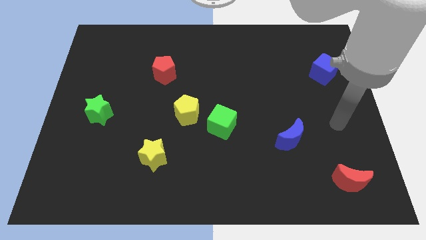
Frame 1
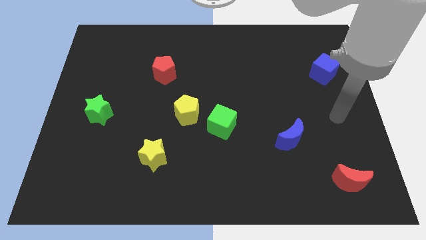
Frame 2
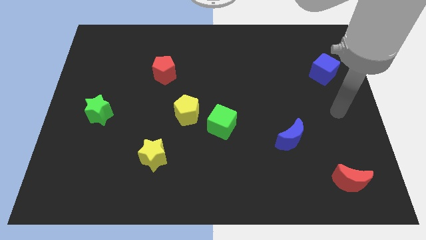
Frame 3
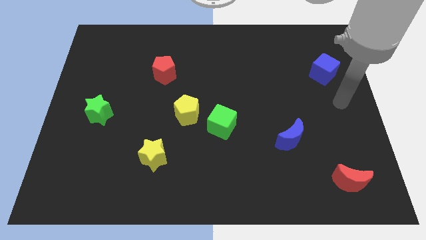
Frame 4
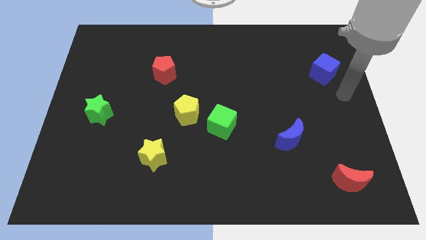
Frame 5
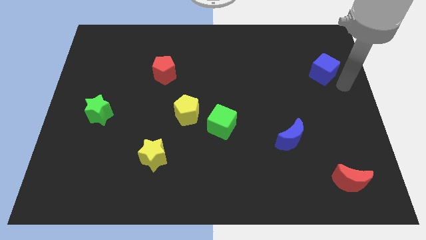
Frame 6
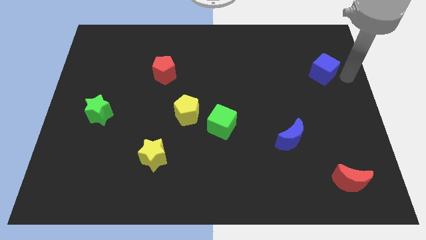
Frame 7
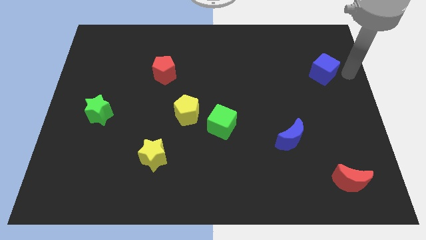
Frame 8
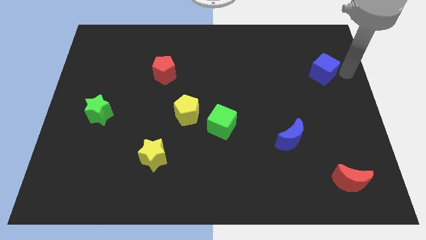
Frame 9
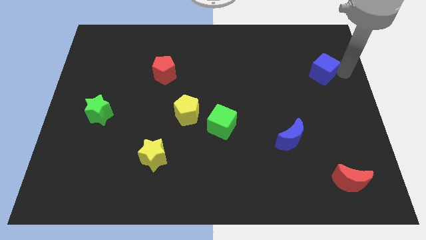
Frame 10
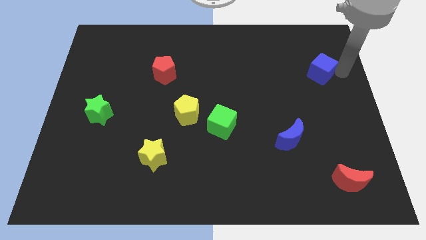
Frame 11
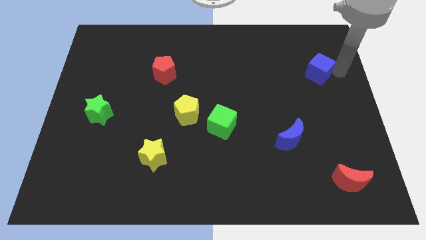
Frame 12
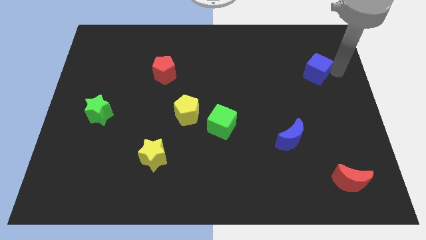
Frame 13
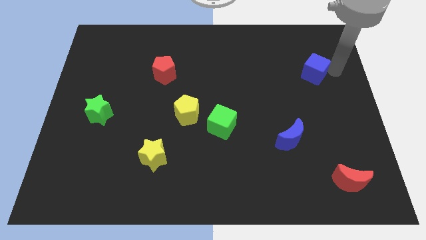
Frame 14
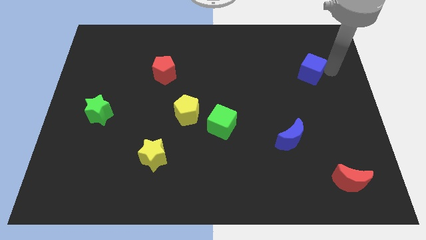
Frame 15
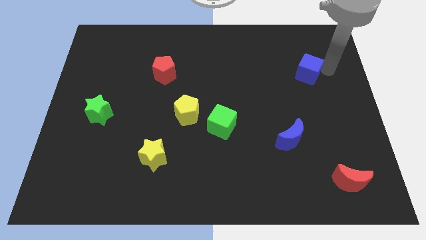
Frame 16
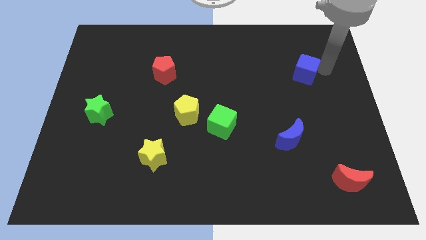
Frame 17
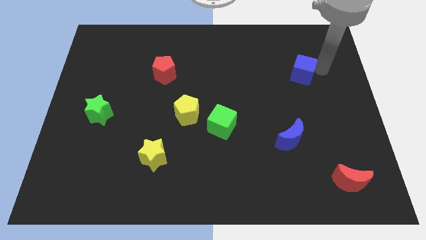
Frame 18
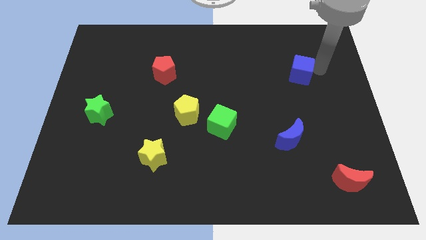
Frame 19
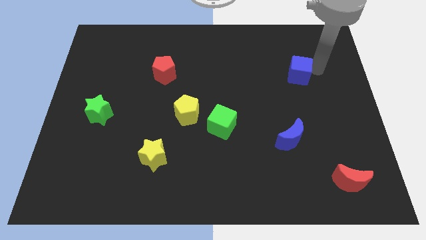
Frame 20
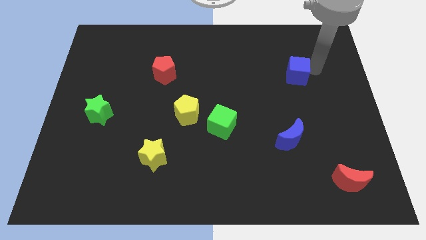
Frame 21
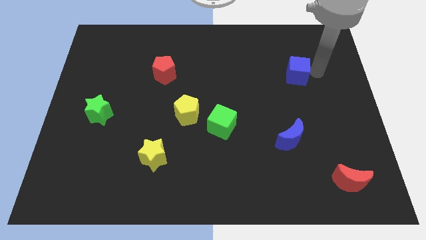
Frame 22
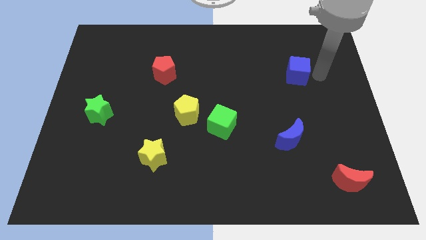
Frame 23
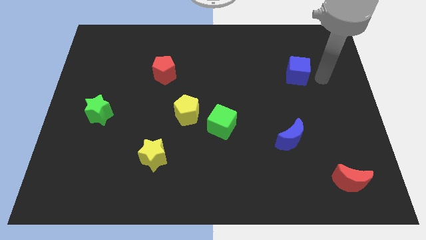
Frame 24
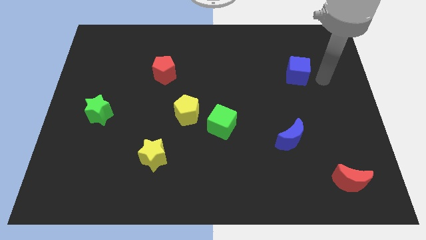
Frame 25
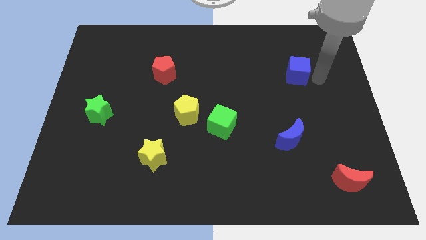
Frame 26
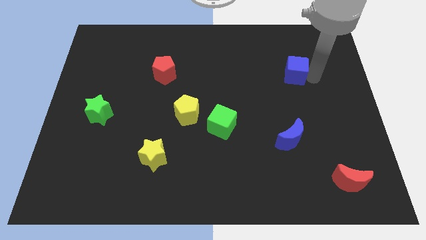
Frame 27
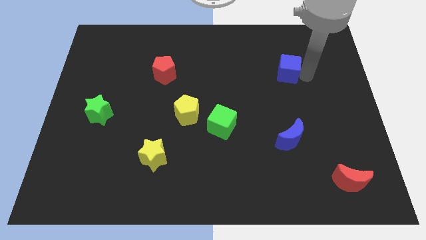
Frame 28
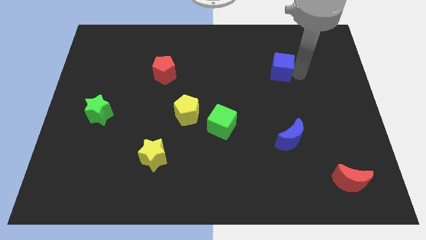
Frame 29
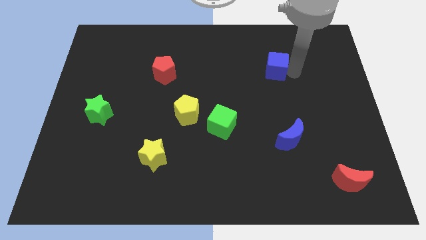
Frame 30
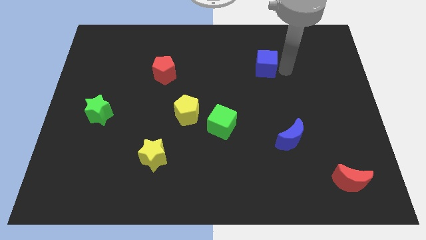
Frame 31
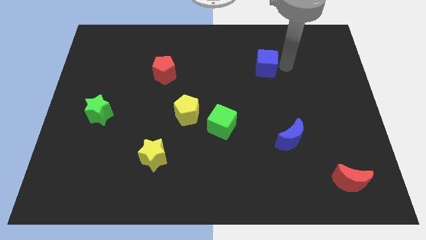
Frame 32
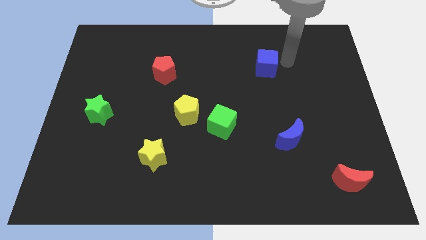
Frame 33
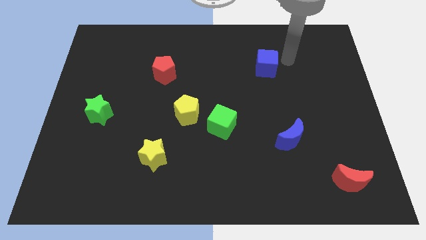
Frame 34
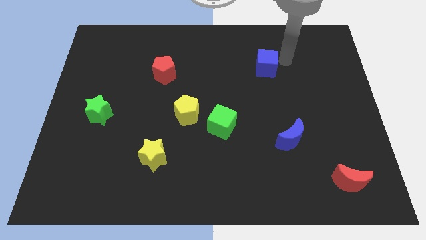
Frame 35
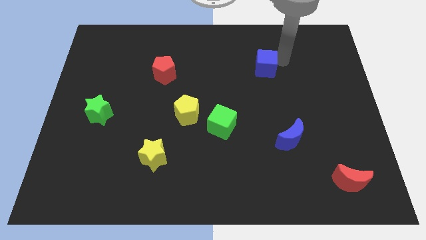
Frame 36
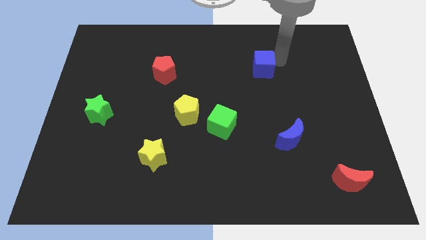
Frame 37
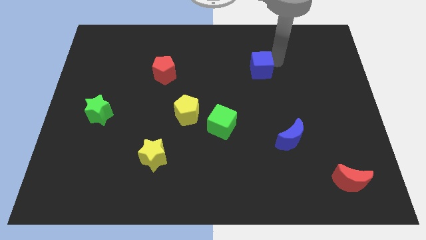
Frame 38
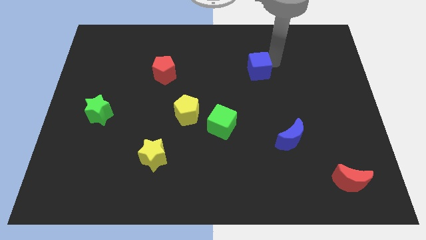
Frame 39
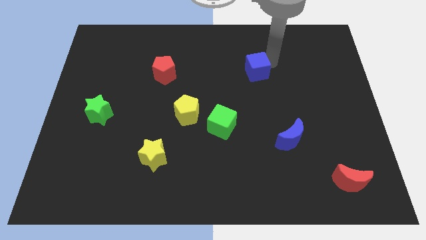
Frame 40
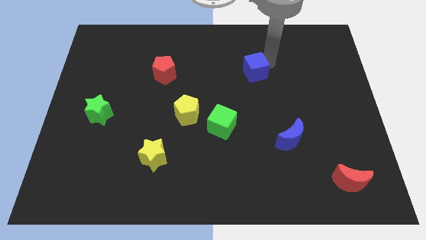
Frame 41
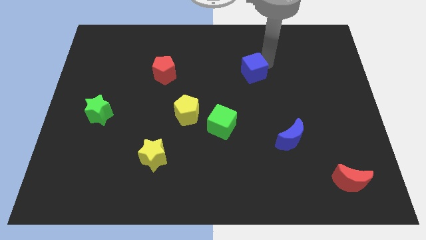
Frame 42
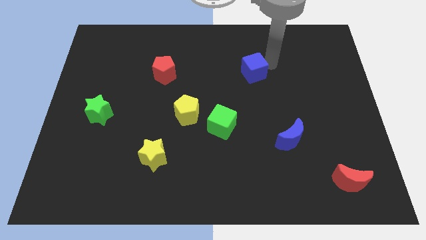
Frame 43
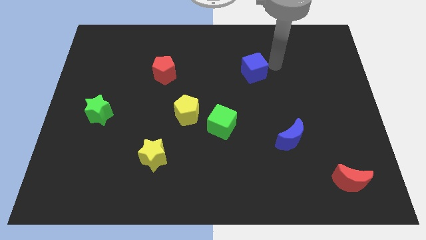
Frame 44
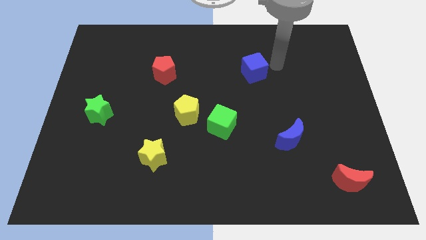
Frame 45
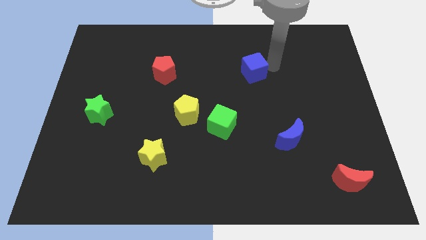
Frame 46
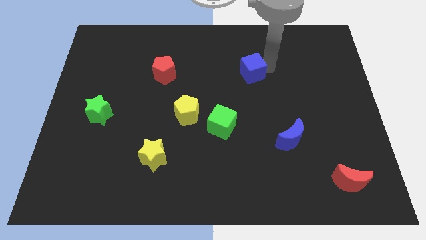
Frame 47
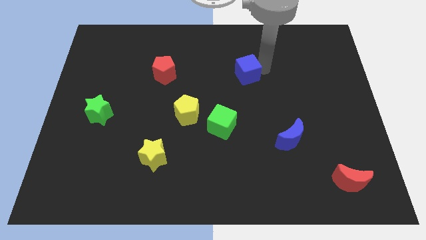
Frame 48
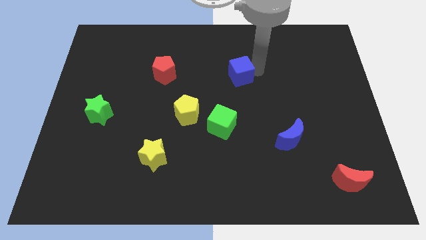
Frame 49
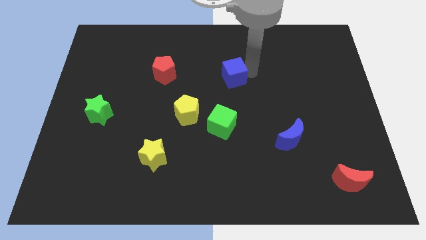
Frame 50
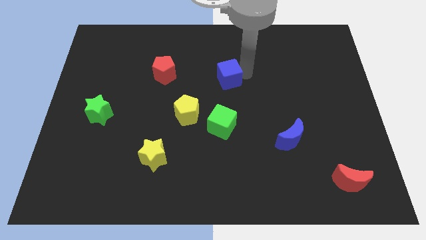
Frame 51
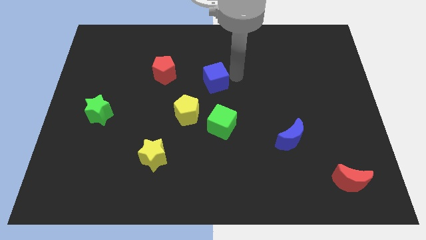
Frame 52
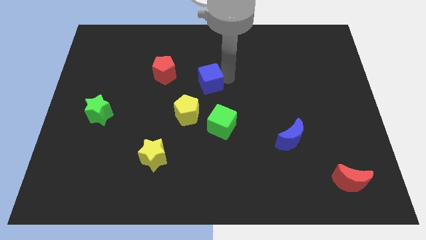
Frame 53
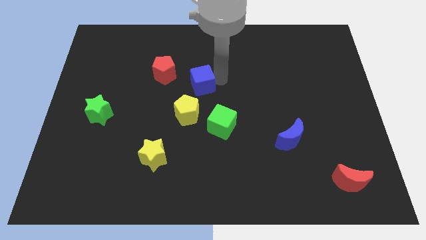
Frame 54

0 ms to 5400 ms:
push the blue cube diagonally down and to the right of the red pentagon

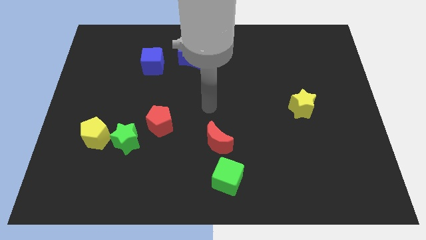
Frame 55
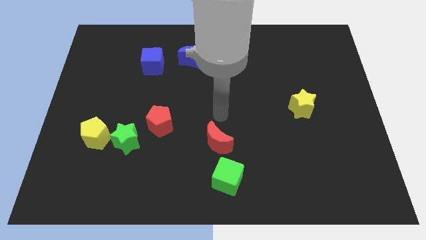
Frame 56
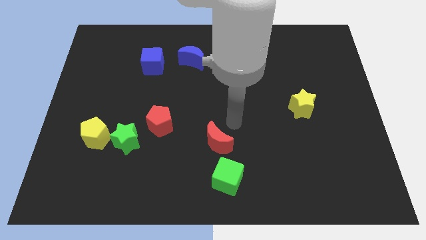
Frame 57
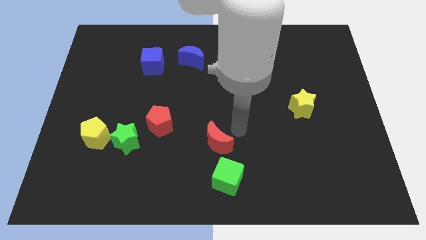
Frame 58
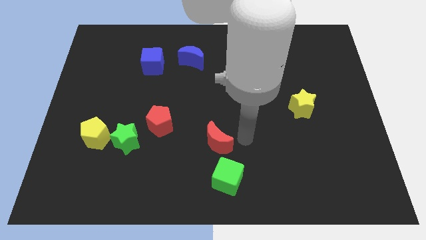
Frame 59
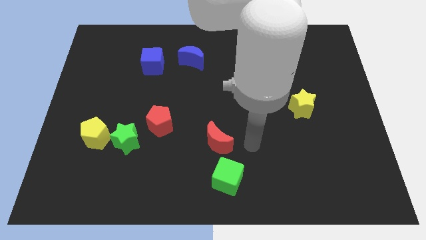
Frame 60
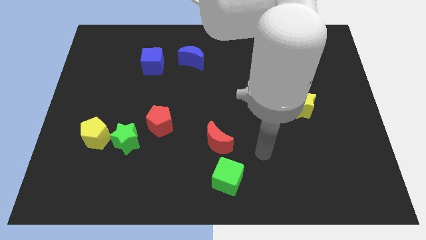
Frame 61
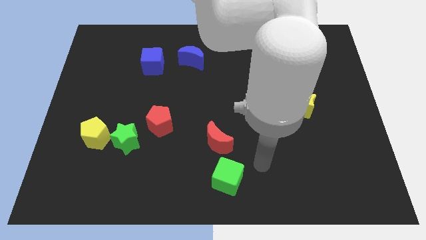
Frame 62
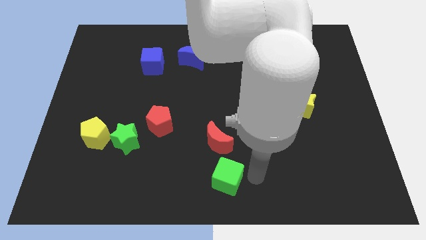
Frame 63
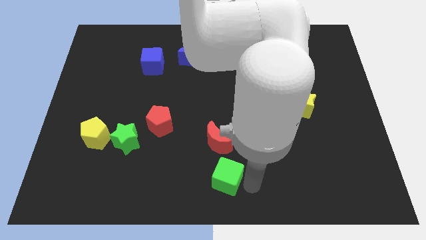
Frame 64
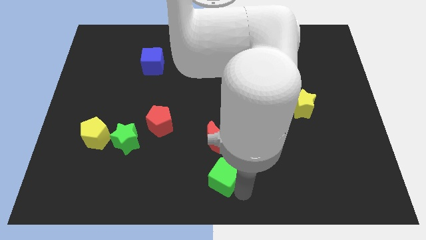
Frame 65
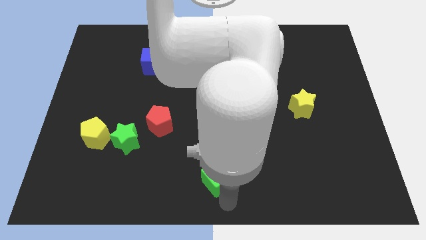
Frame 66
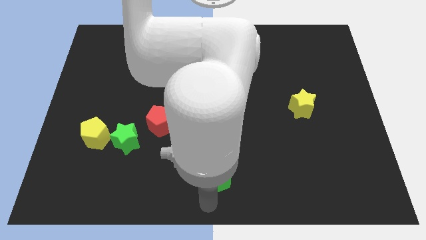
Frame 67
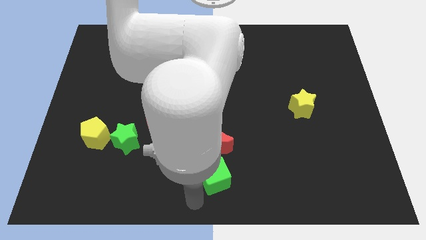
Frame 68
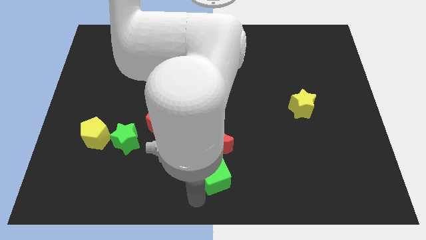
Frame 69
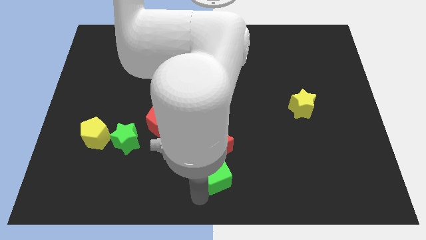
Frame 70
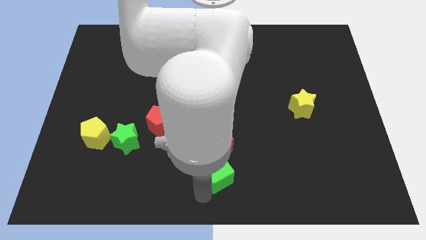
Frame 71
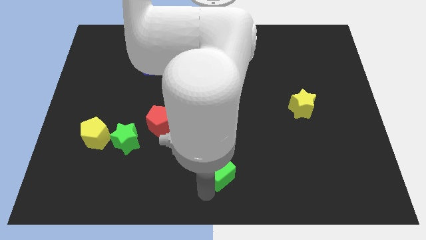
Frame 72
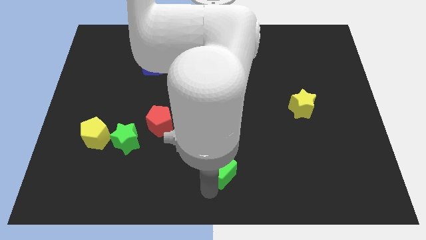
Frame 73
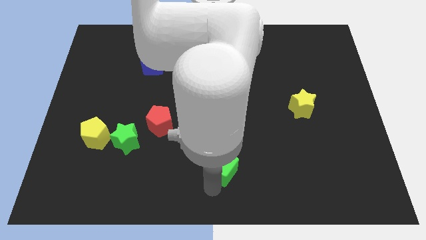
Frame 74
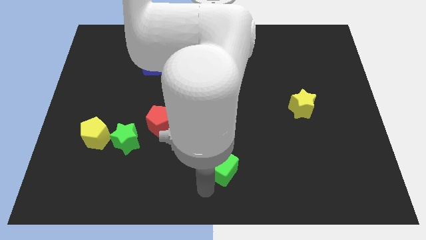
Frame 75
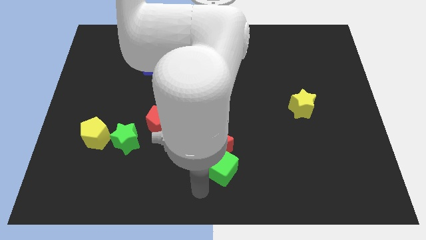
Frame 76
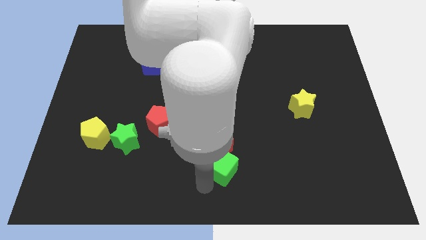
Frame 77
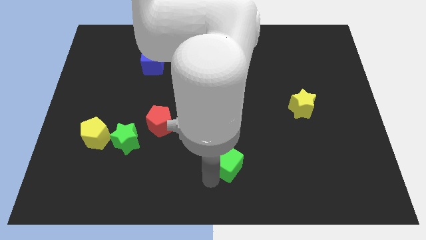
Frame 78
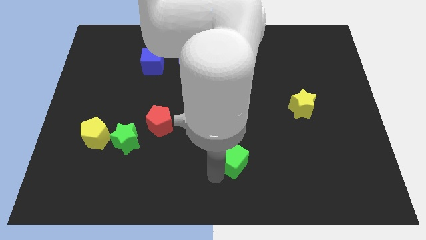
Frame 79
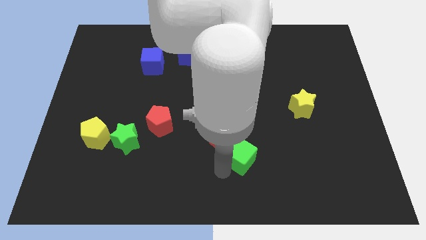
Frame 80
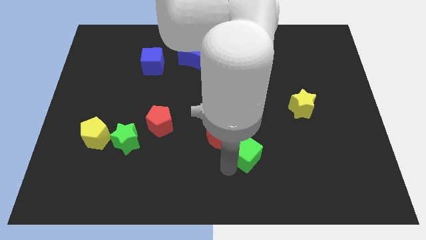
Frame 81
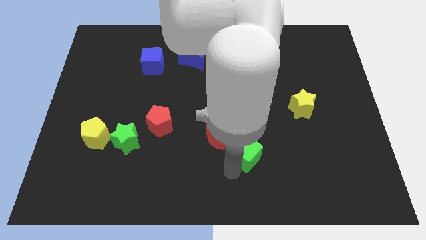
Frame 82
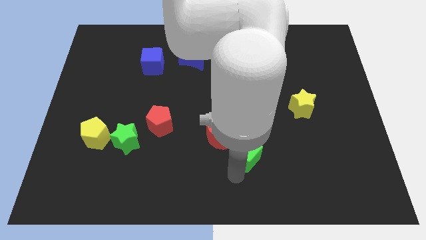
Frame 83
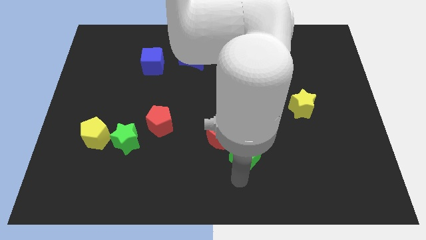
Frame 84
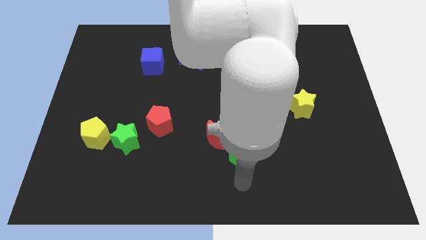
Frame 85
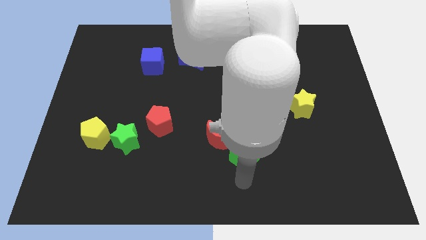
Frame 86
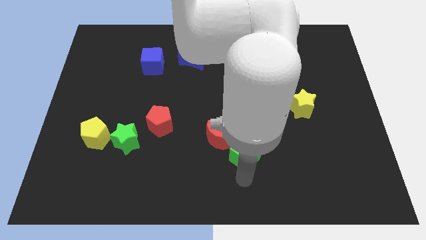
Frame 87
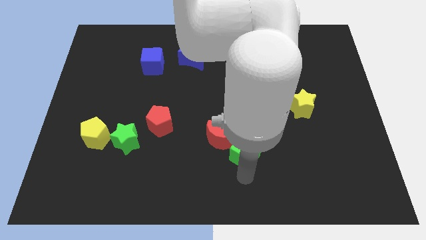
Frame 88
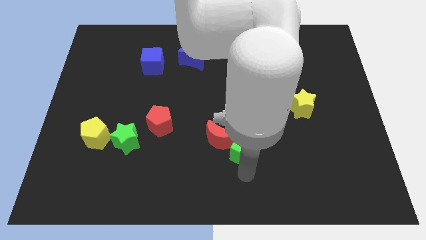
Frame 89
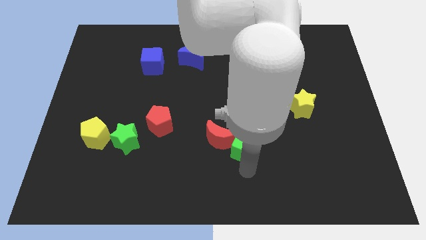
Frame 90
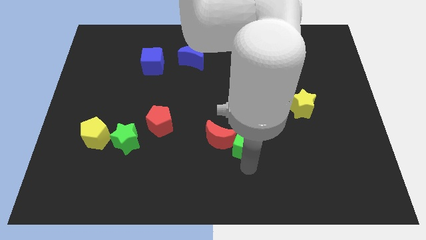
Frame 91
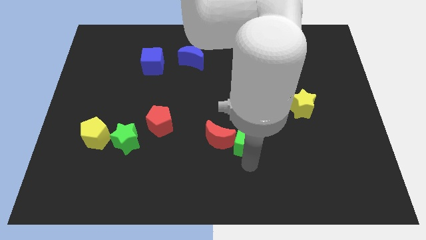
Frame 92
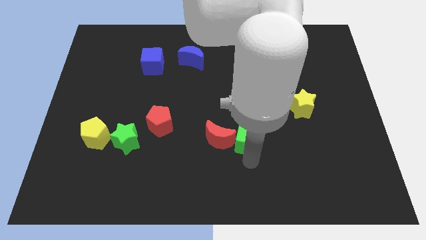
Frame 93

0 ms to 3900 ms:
move the green cube to the top right side of the red moon
